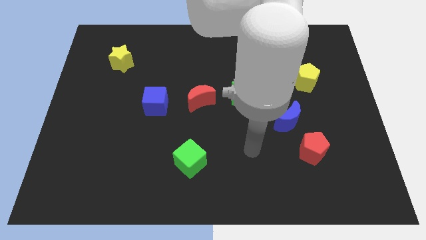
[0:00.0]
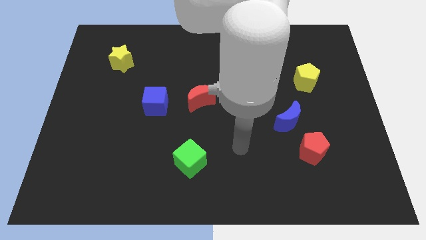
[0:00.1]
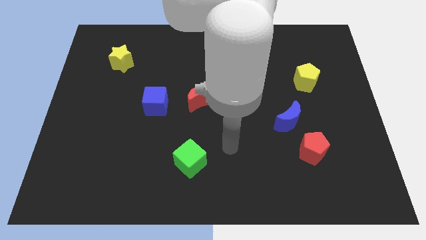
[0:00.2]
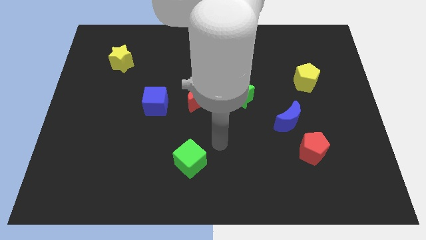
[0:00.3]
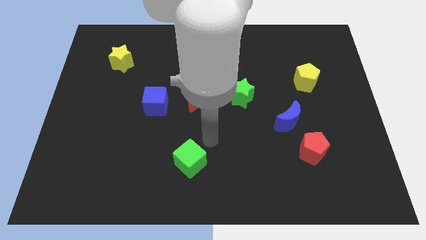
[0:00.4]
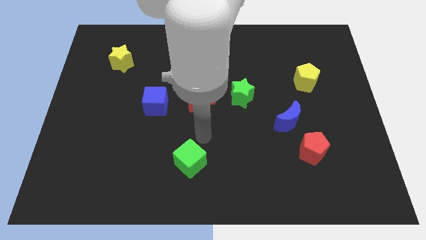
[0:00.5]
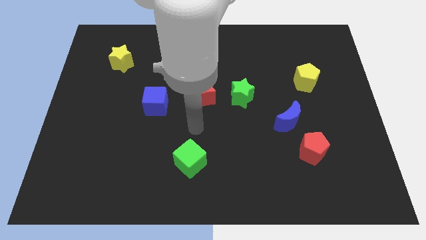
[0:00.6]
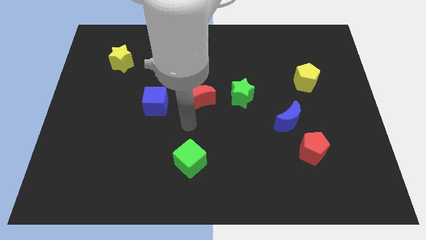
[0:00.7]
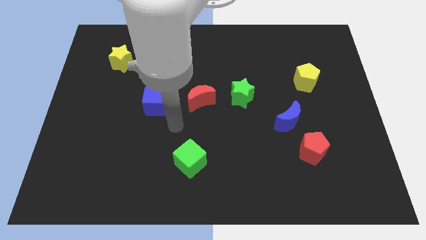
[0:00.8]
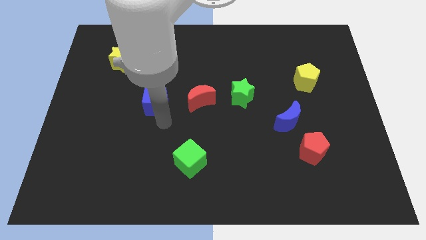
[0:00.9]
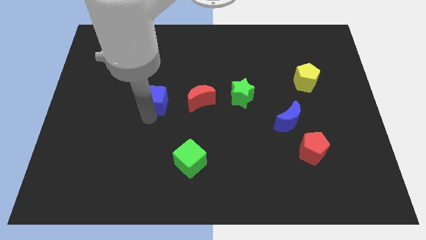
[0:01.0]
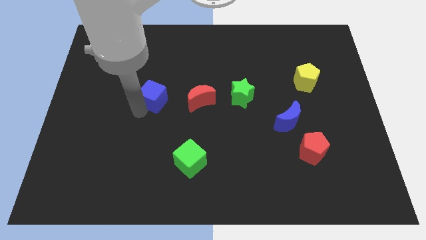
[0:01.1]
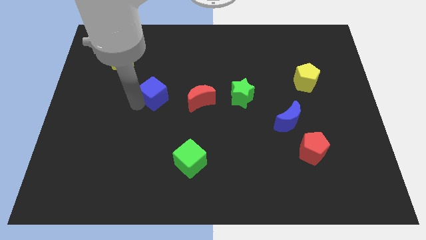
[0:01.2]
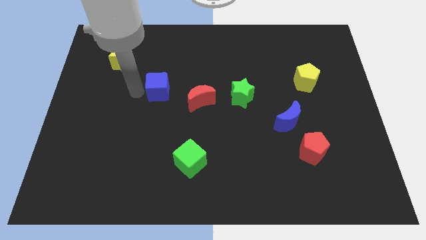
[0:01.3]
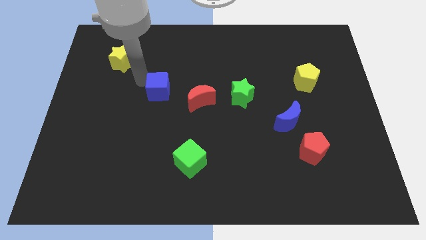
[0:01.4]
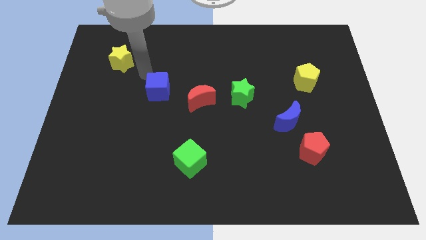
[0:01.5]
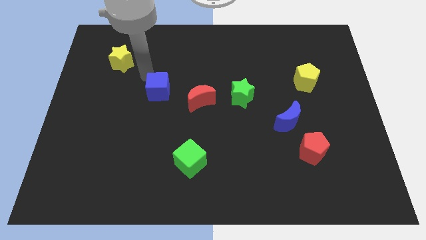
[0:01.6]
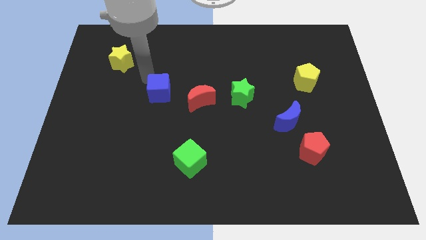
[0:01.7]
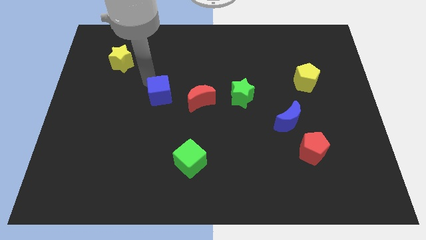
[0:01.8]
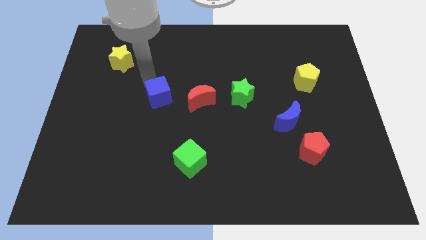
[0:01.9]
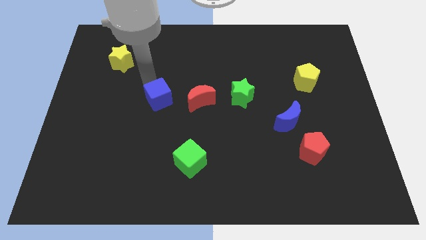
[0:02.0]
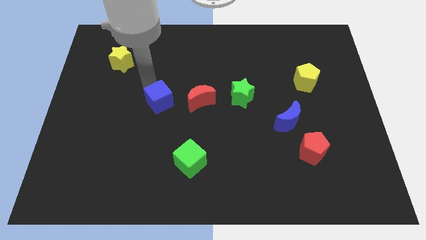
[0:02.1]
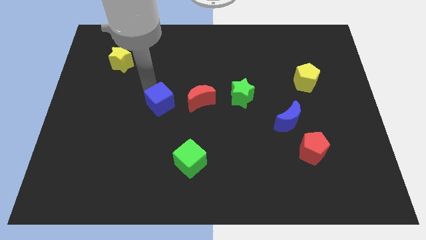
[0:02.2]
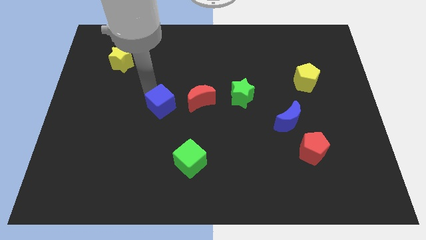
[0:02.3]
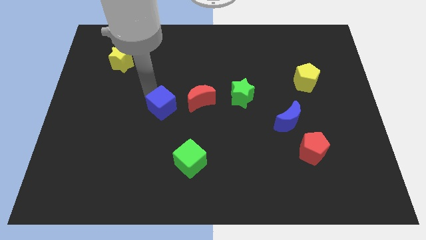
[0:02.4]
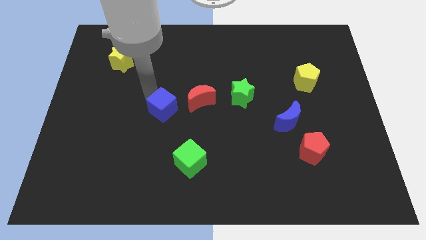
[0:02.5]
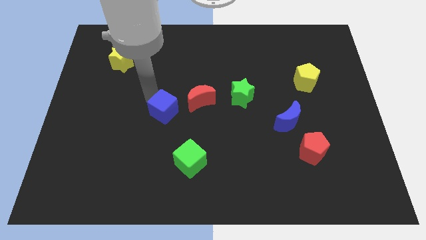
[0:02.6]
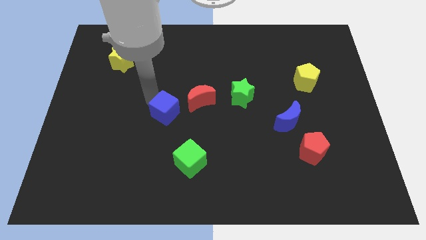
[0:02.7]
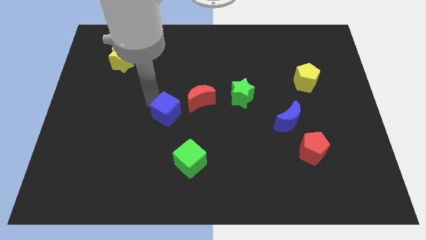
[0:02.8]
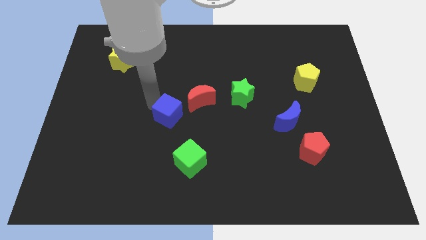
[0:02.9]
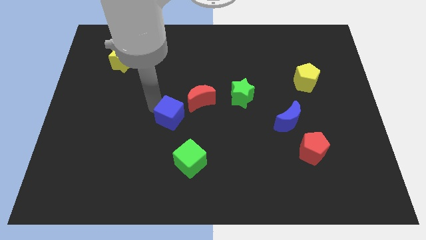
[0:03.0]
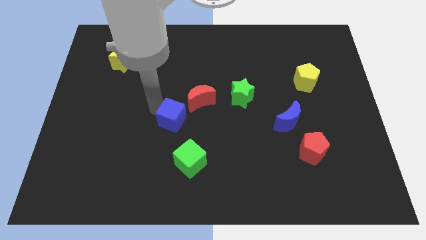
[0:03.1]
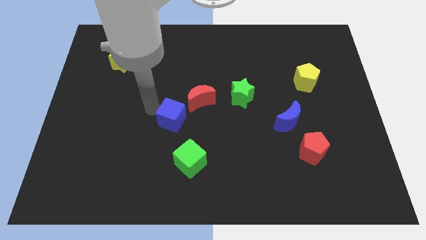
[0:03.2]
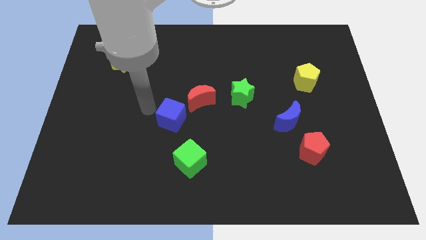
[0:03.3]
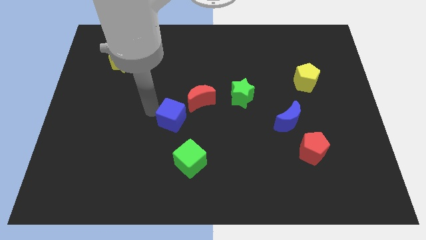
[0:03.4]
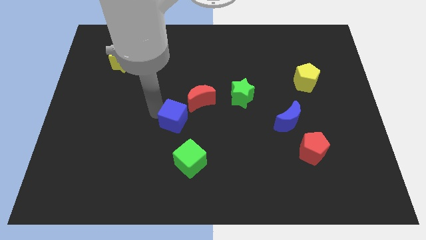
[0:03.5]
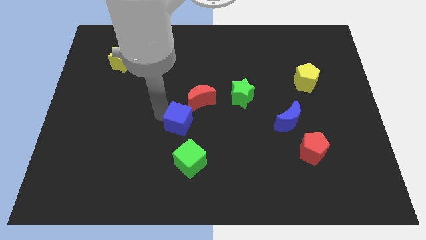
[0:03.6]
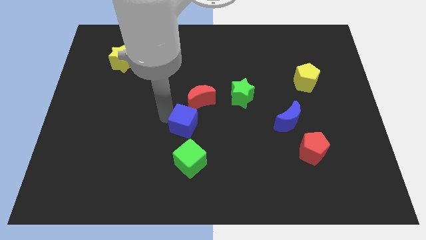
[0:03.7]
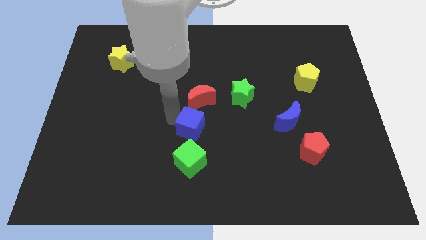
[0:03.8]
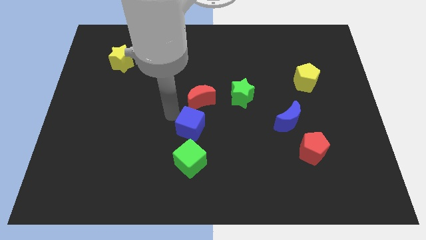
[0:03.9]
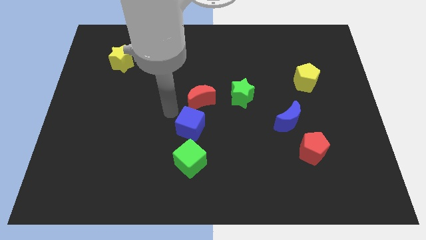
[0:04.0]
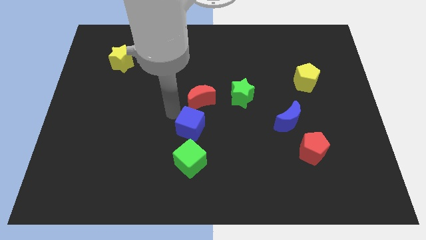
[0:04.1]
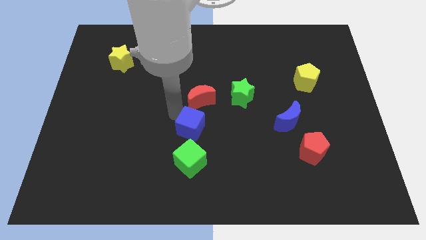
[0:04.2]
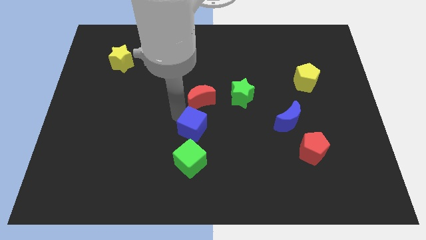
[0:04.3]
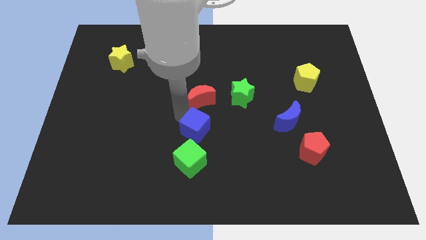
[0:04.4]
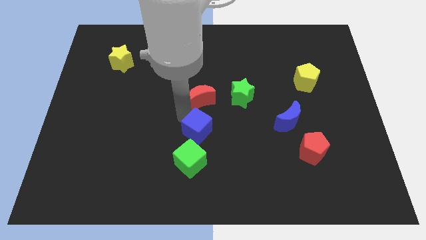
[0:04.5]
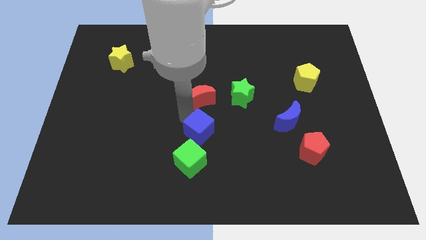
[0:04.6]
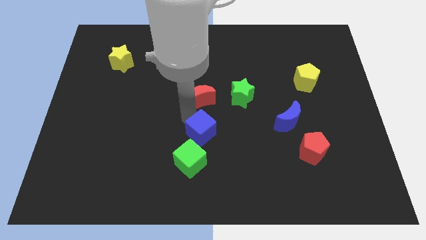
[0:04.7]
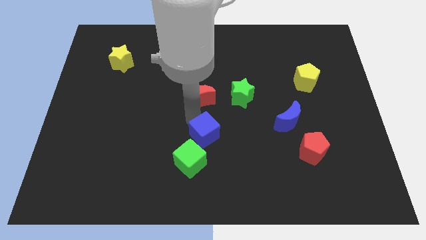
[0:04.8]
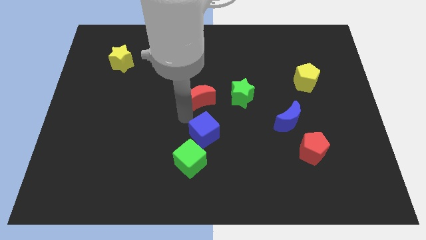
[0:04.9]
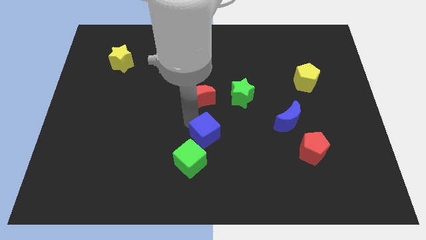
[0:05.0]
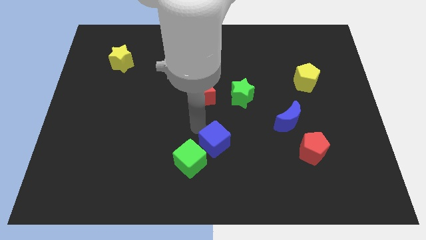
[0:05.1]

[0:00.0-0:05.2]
slide the blue cube to the right side of the green cube

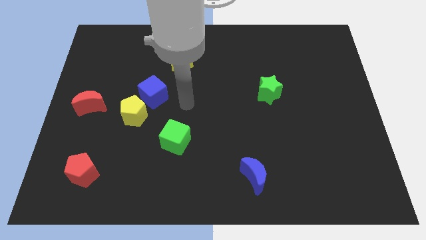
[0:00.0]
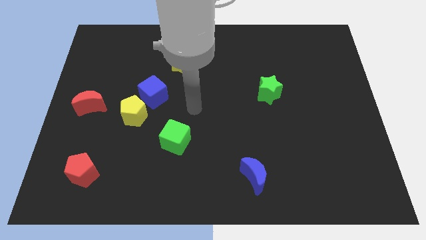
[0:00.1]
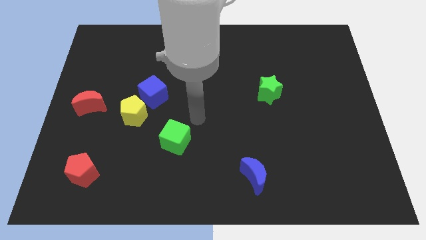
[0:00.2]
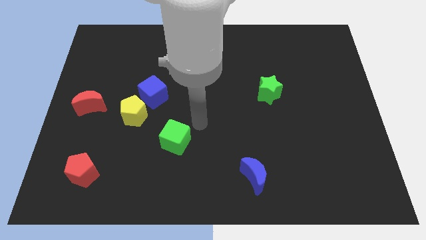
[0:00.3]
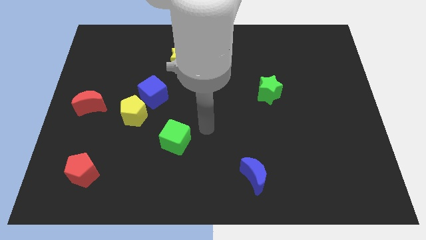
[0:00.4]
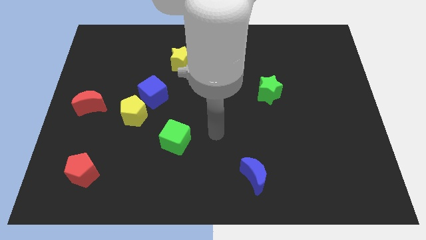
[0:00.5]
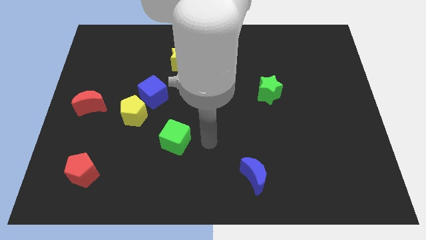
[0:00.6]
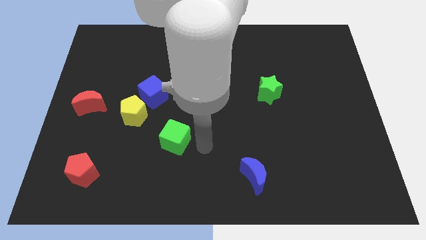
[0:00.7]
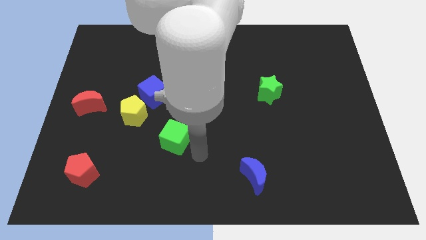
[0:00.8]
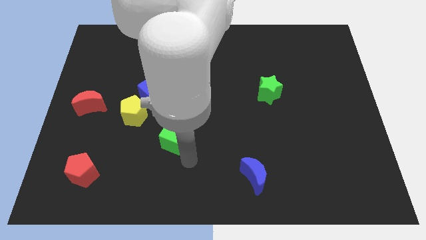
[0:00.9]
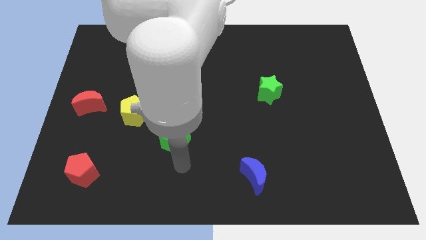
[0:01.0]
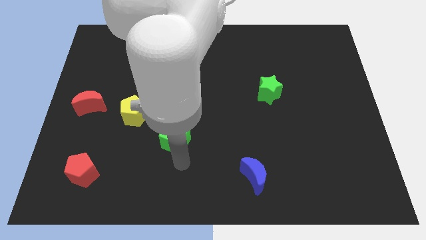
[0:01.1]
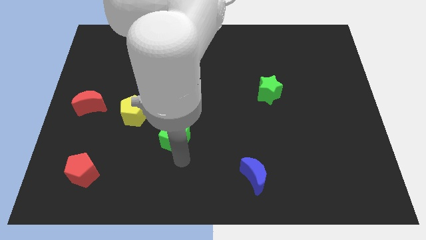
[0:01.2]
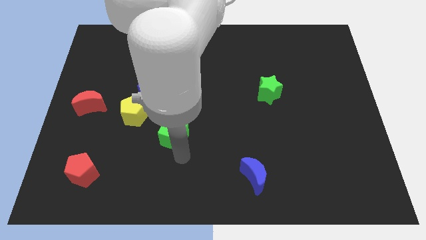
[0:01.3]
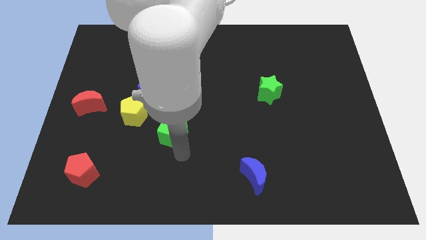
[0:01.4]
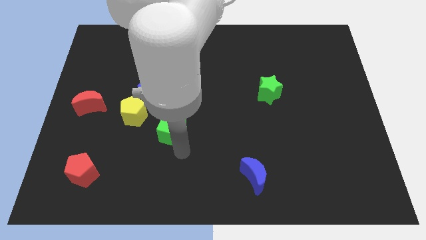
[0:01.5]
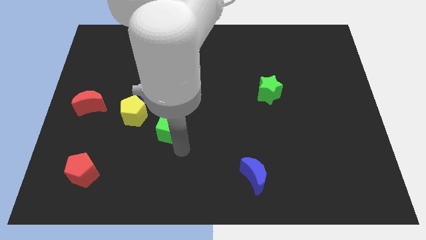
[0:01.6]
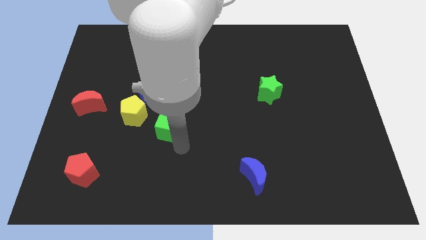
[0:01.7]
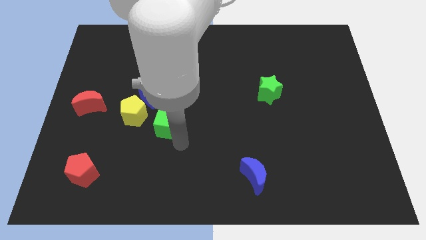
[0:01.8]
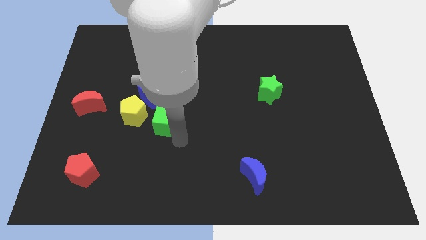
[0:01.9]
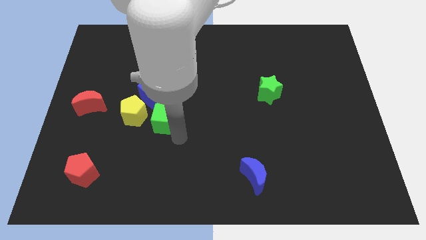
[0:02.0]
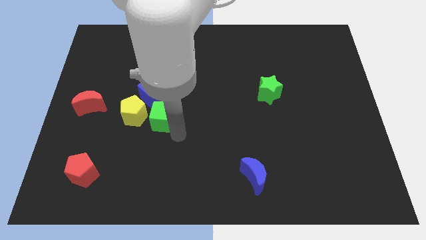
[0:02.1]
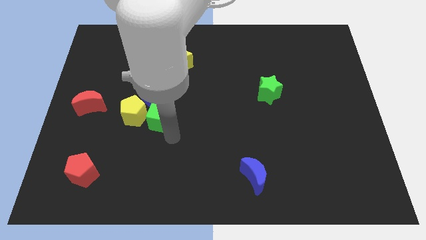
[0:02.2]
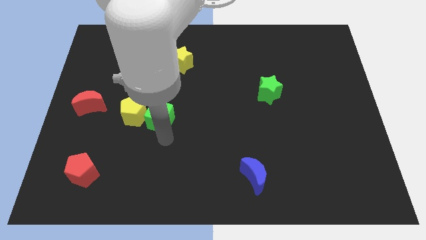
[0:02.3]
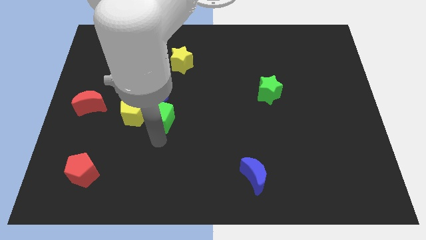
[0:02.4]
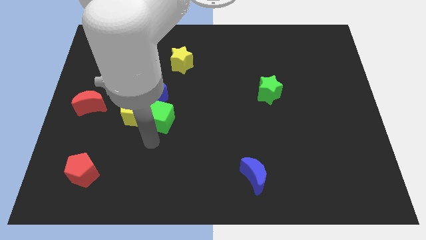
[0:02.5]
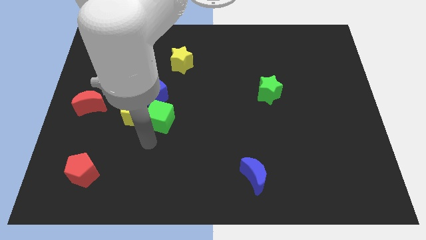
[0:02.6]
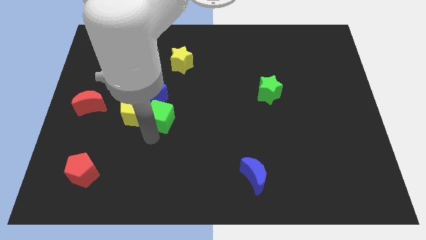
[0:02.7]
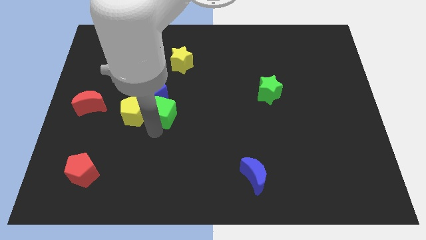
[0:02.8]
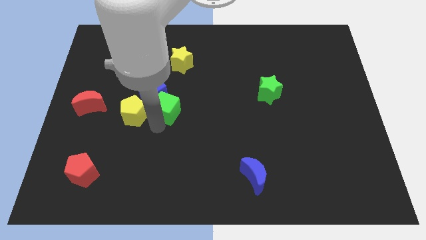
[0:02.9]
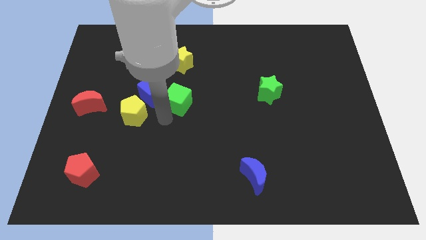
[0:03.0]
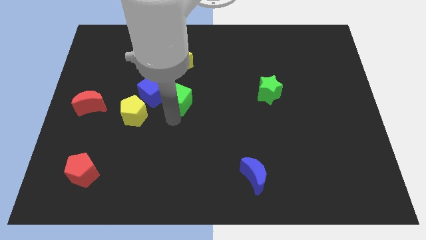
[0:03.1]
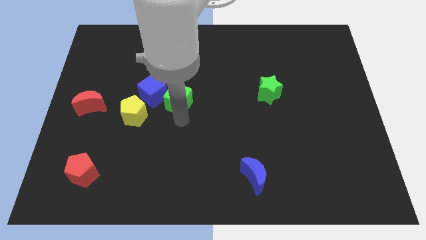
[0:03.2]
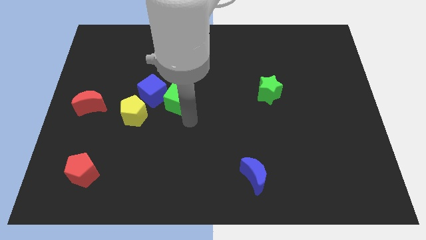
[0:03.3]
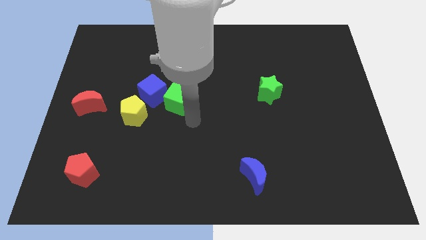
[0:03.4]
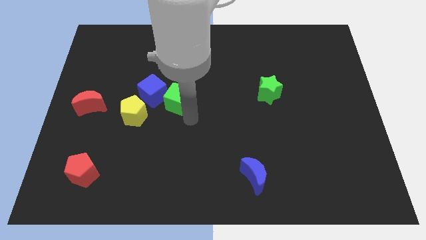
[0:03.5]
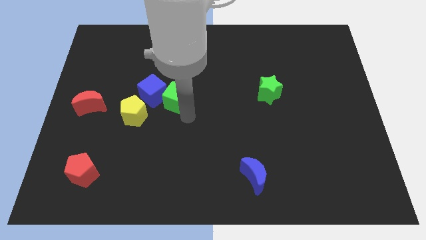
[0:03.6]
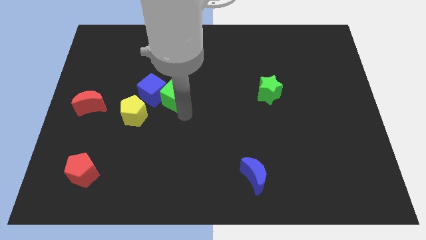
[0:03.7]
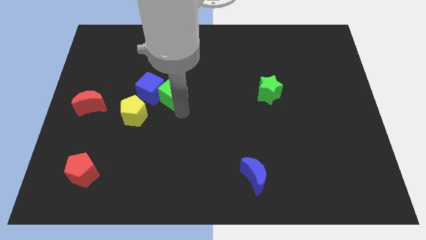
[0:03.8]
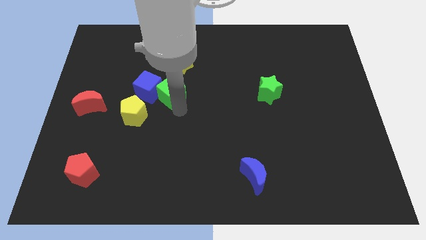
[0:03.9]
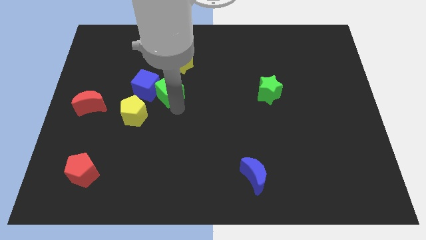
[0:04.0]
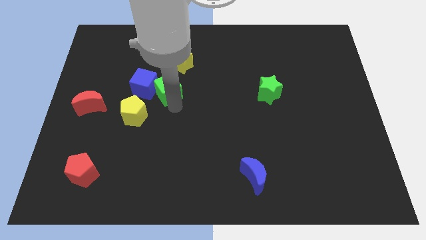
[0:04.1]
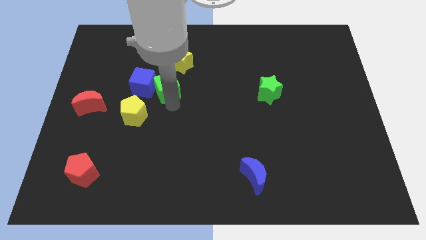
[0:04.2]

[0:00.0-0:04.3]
put the green cube to the bottom left side of the yellow star
